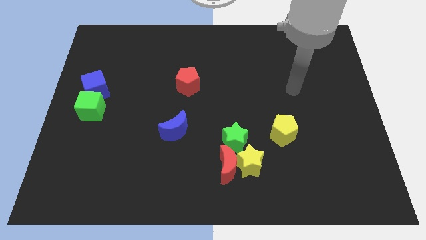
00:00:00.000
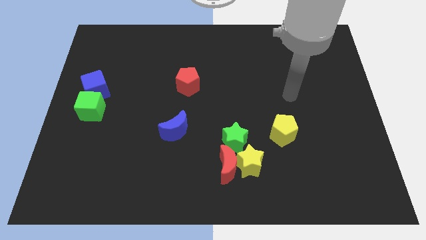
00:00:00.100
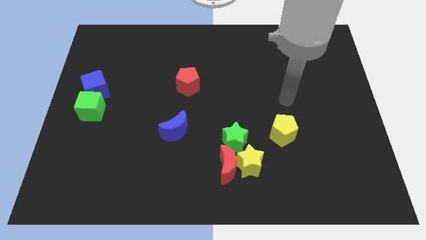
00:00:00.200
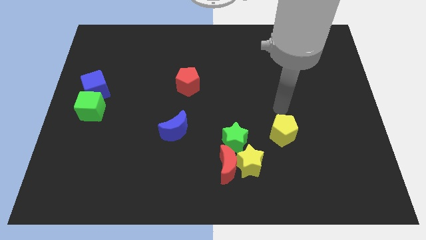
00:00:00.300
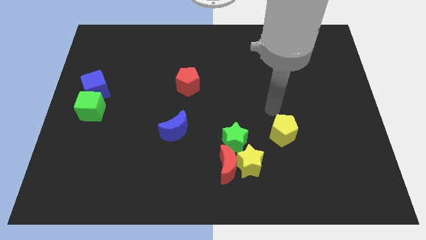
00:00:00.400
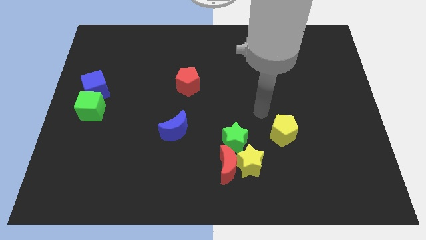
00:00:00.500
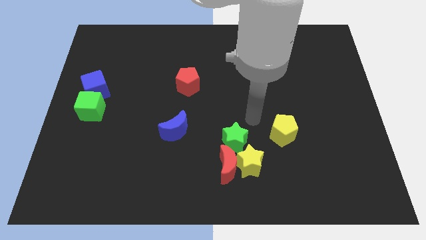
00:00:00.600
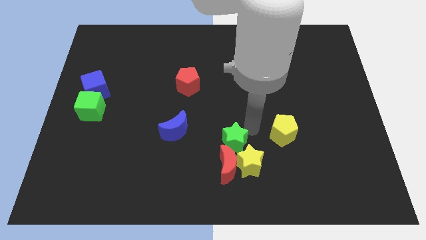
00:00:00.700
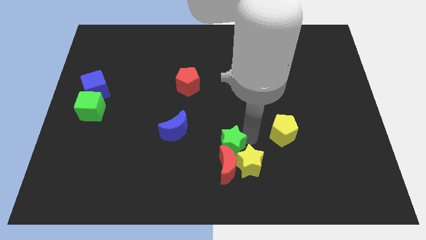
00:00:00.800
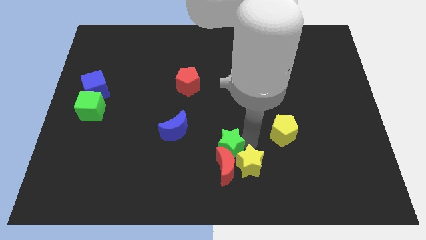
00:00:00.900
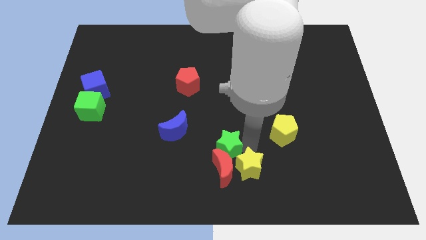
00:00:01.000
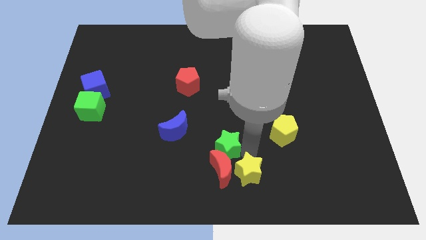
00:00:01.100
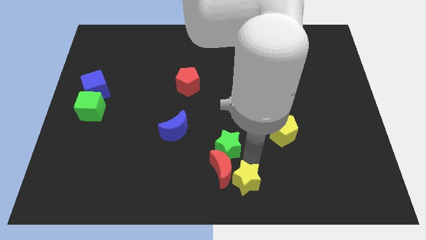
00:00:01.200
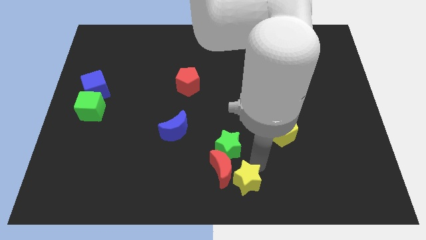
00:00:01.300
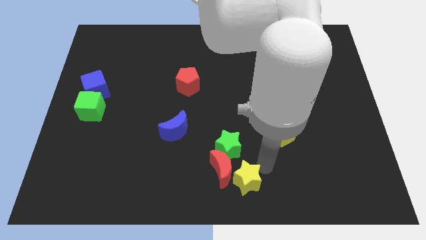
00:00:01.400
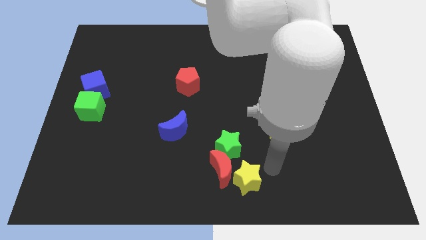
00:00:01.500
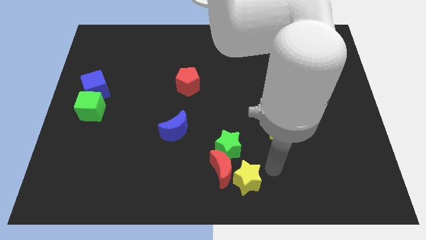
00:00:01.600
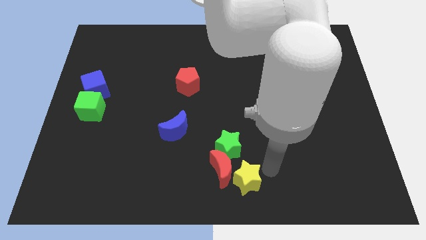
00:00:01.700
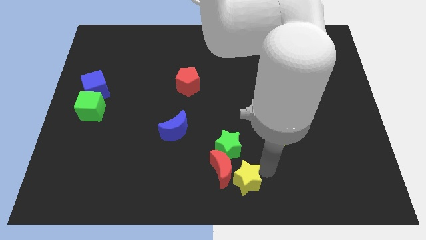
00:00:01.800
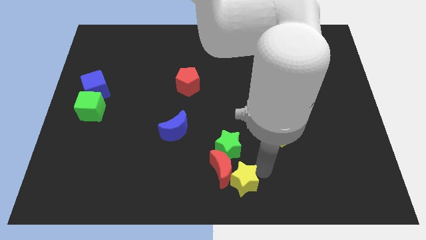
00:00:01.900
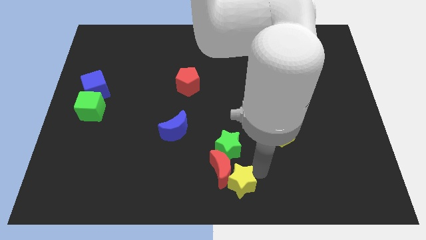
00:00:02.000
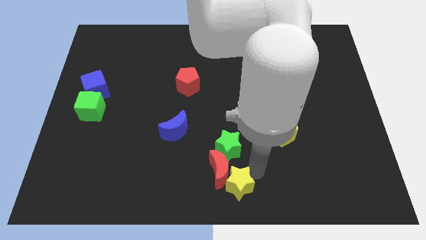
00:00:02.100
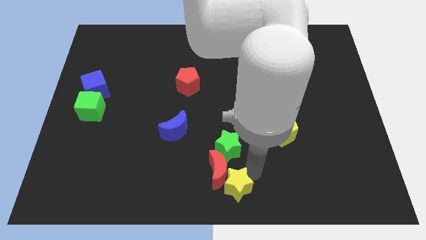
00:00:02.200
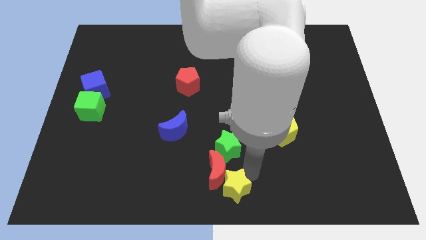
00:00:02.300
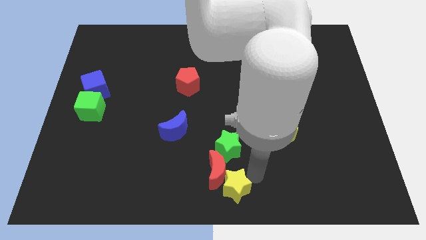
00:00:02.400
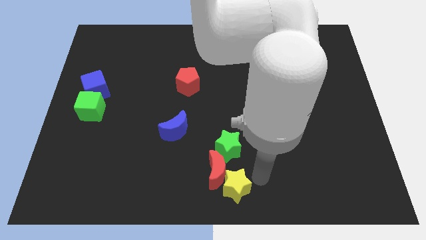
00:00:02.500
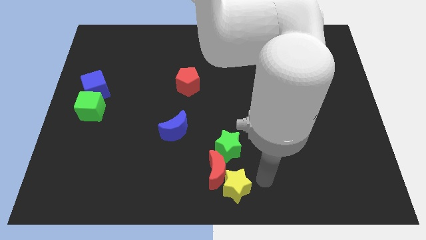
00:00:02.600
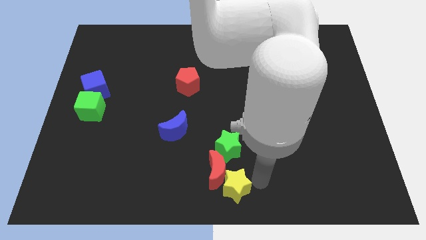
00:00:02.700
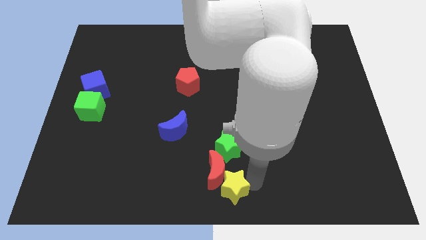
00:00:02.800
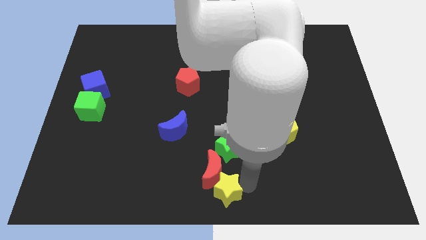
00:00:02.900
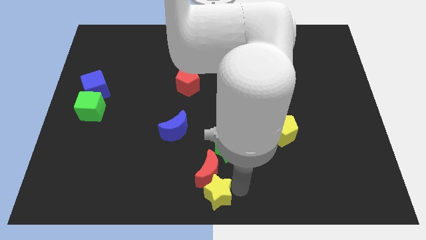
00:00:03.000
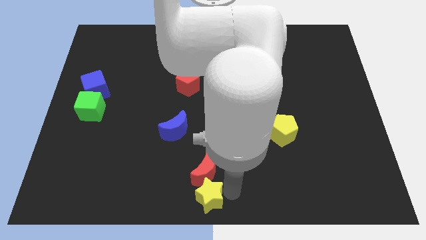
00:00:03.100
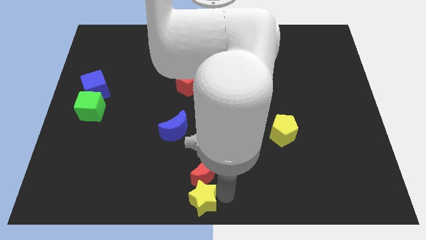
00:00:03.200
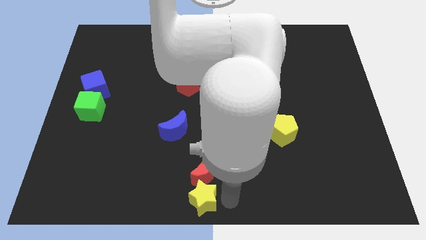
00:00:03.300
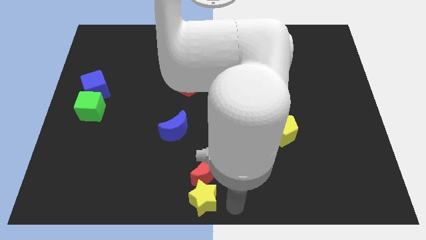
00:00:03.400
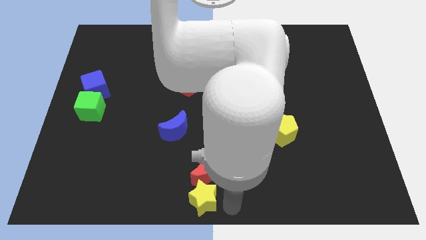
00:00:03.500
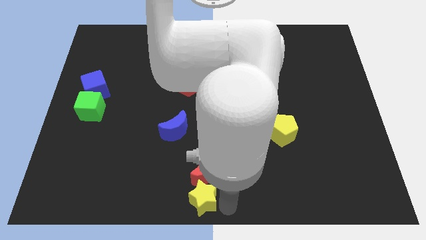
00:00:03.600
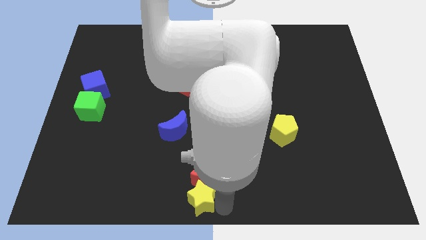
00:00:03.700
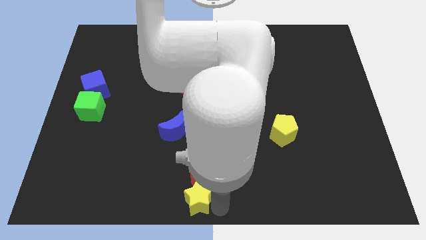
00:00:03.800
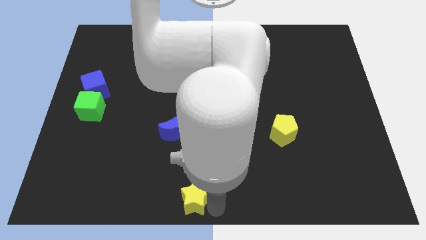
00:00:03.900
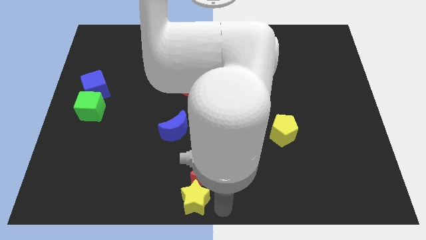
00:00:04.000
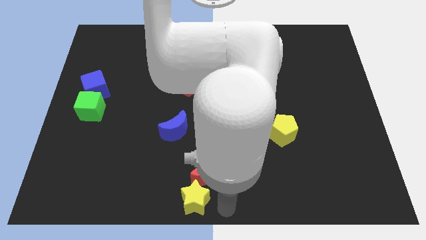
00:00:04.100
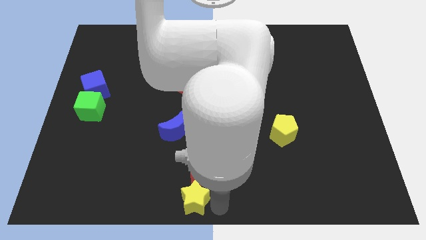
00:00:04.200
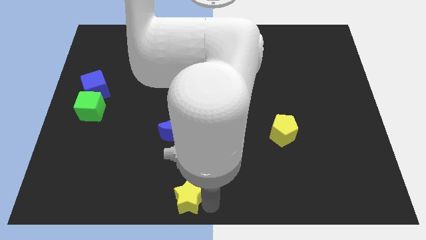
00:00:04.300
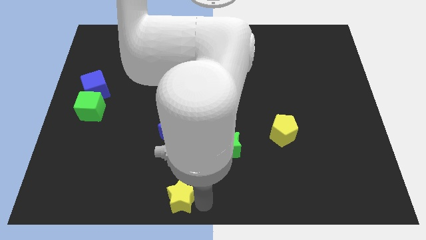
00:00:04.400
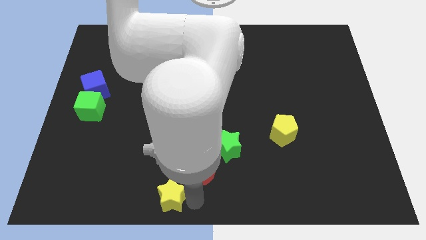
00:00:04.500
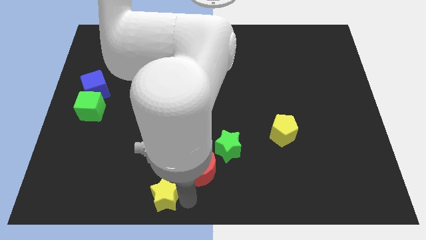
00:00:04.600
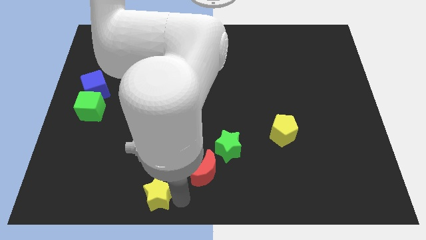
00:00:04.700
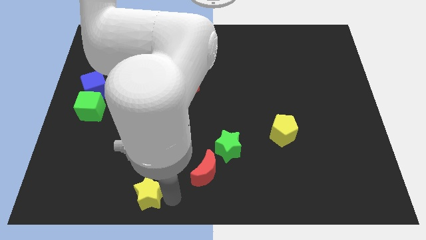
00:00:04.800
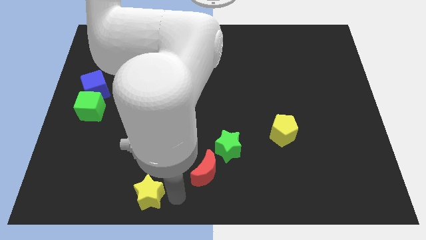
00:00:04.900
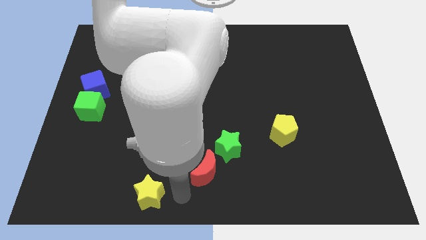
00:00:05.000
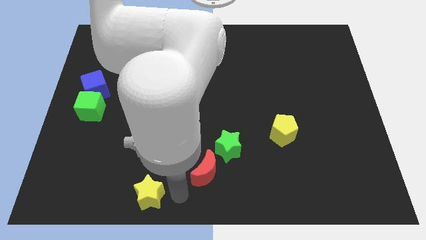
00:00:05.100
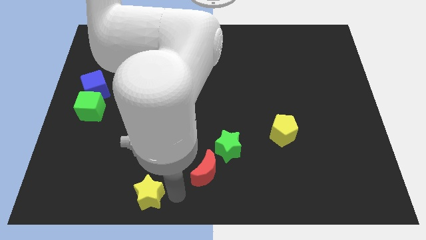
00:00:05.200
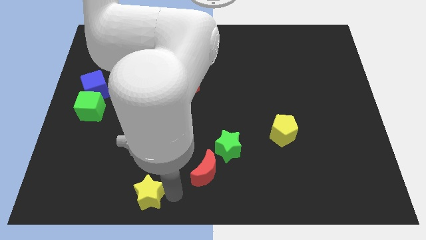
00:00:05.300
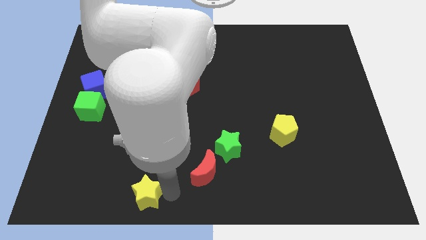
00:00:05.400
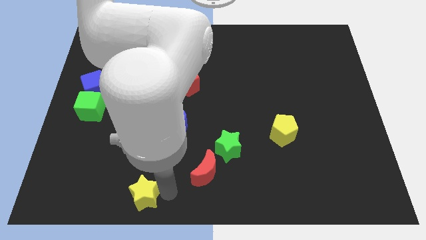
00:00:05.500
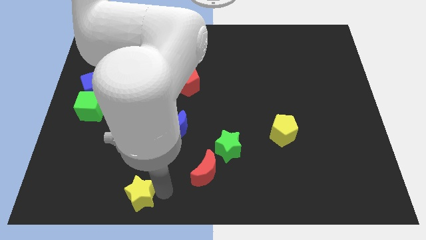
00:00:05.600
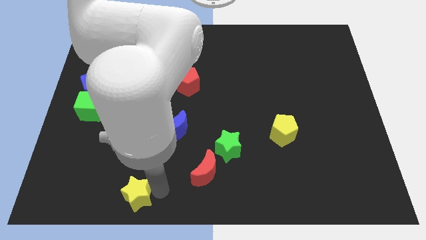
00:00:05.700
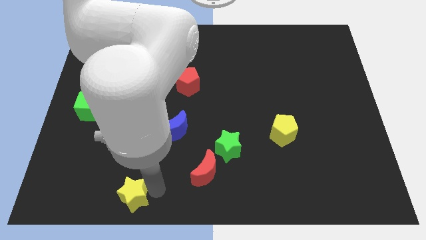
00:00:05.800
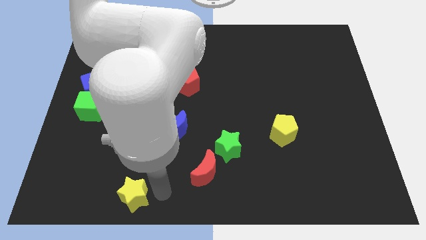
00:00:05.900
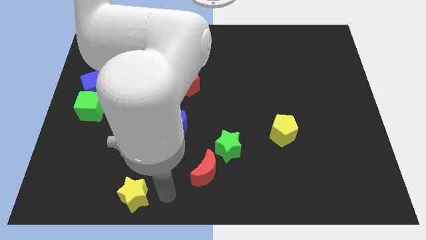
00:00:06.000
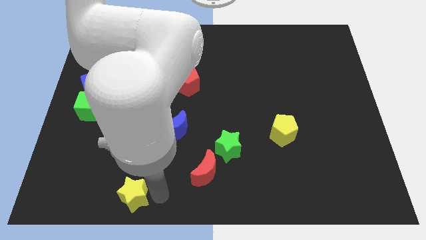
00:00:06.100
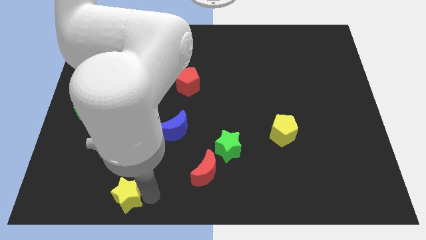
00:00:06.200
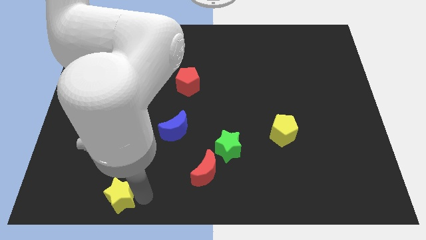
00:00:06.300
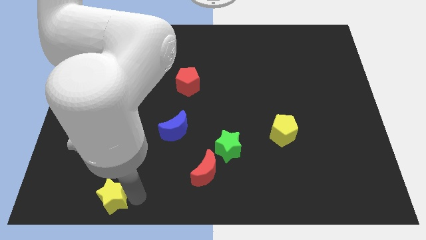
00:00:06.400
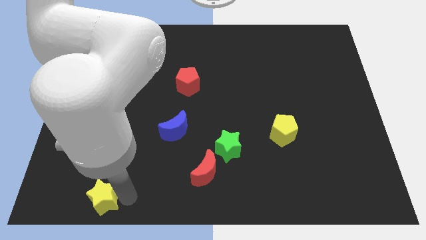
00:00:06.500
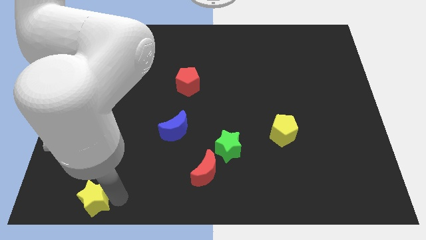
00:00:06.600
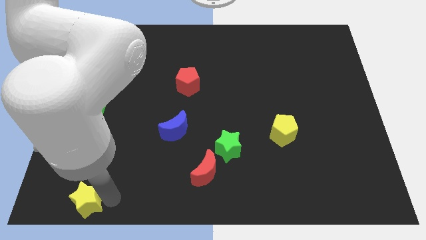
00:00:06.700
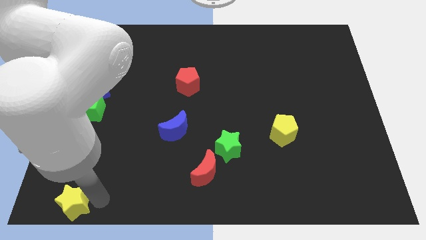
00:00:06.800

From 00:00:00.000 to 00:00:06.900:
push the yellow star to the bottom left of the board
